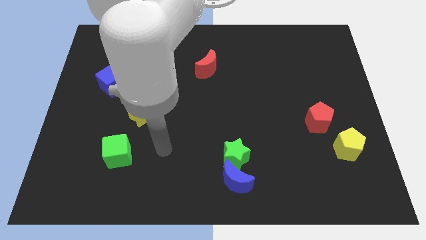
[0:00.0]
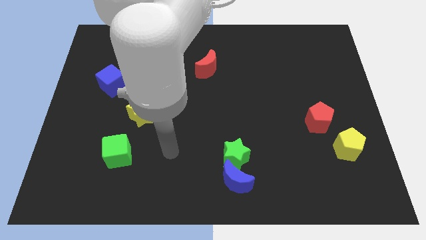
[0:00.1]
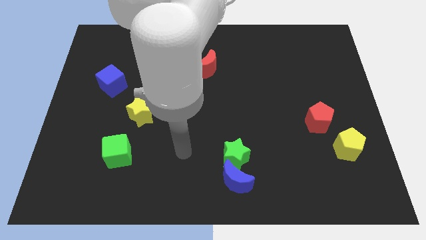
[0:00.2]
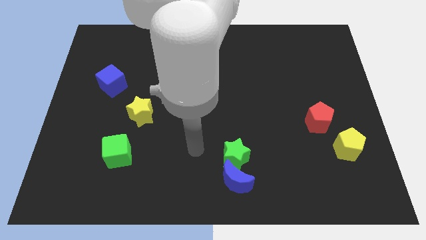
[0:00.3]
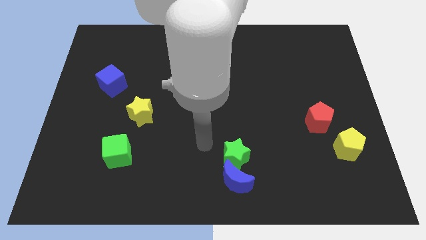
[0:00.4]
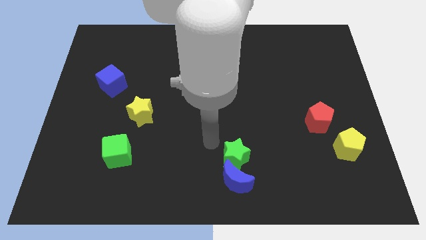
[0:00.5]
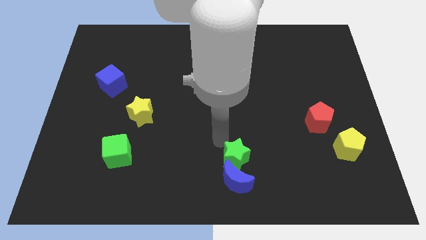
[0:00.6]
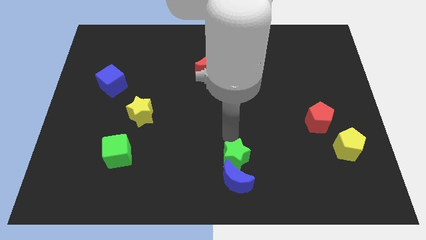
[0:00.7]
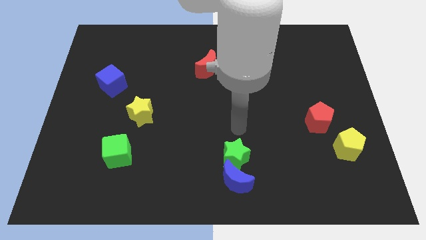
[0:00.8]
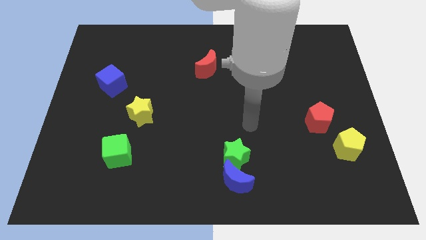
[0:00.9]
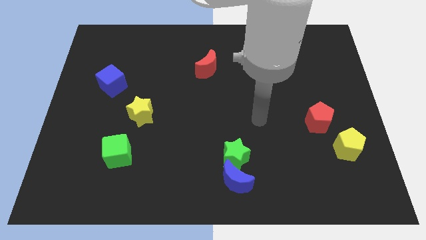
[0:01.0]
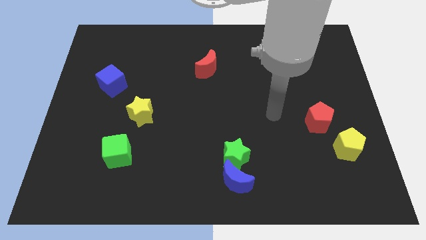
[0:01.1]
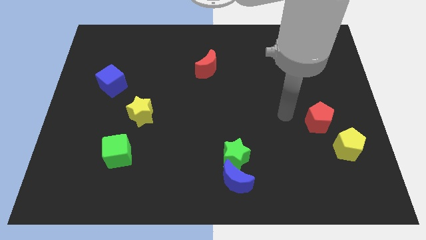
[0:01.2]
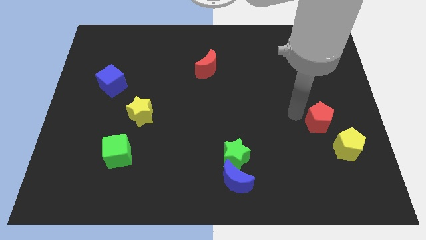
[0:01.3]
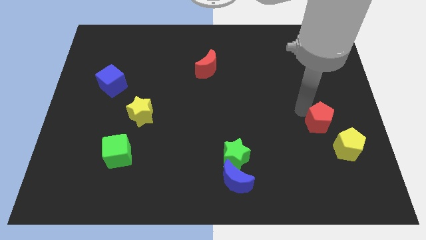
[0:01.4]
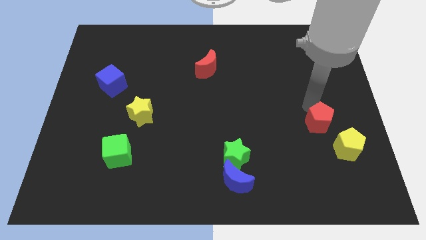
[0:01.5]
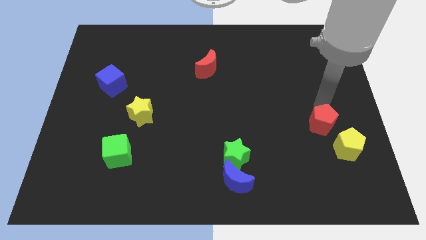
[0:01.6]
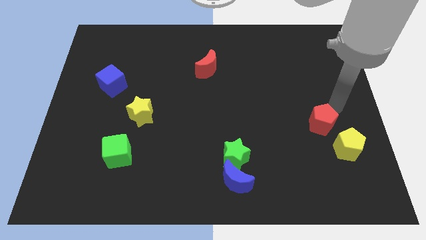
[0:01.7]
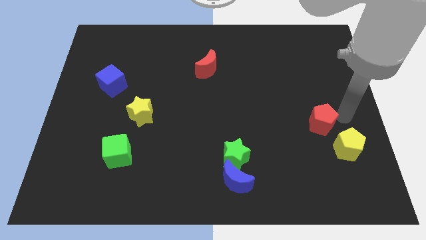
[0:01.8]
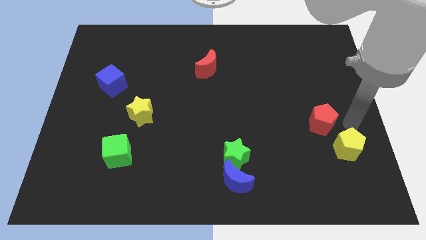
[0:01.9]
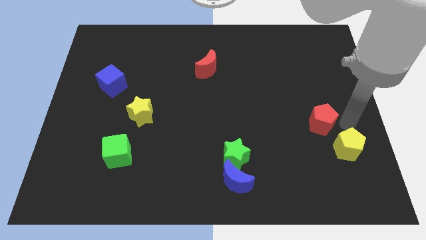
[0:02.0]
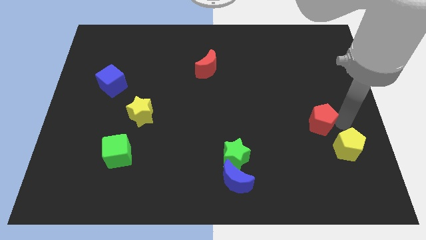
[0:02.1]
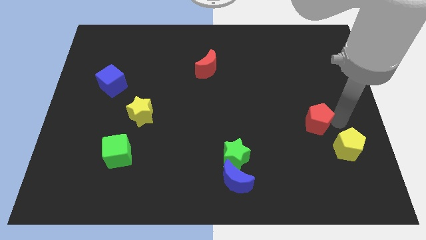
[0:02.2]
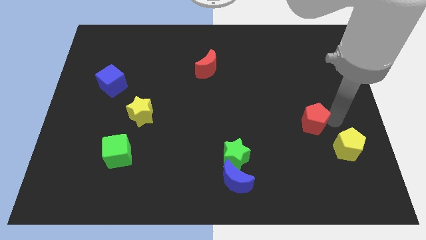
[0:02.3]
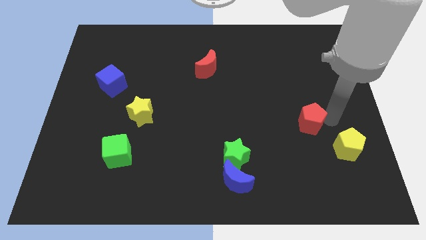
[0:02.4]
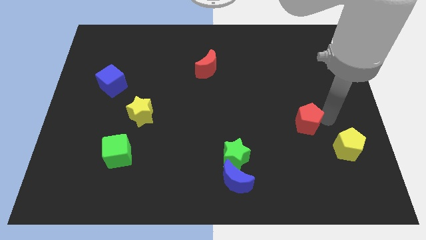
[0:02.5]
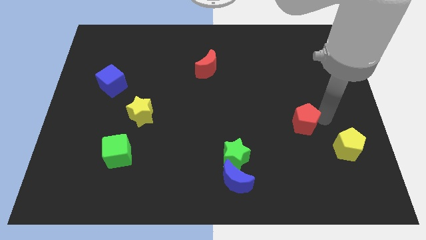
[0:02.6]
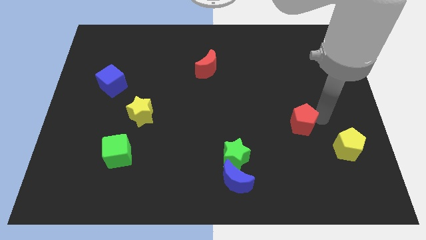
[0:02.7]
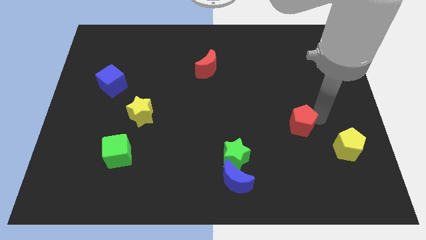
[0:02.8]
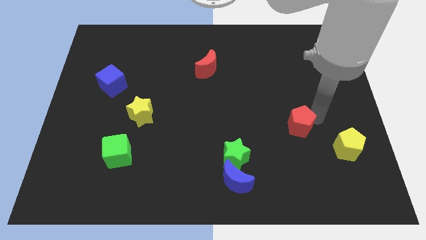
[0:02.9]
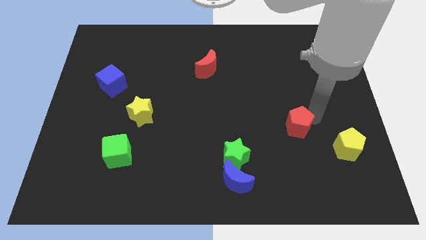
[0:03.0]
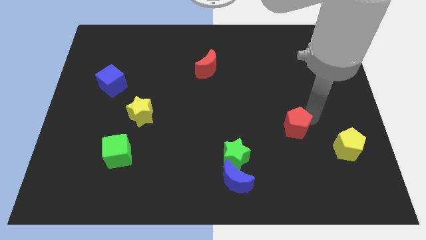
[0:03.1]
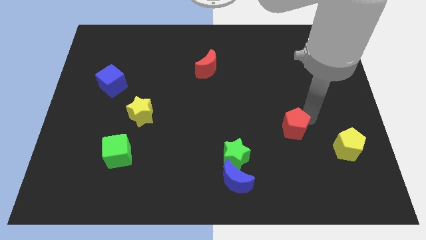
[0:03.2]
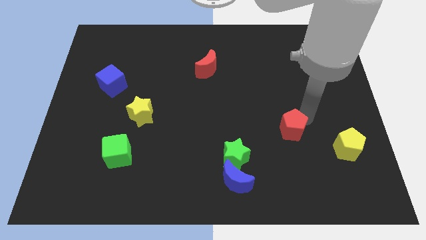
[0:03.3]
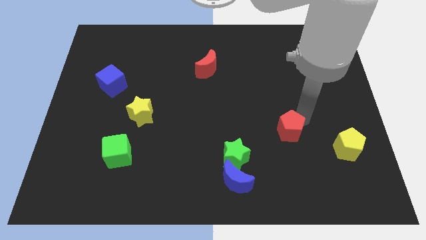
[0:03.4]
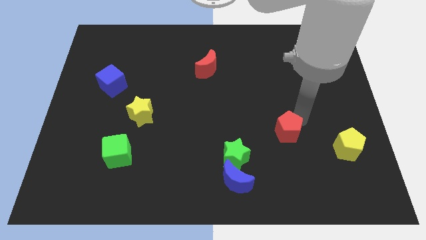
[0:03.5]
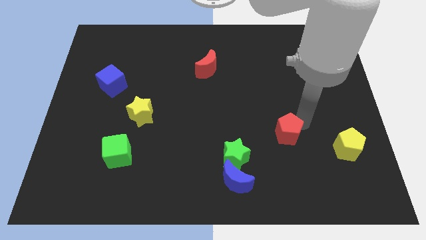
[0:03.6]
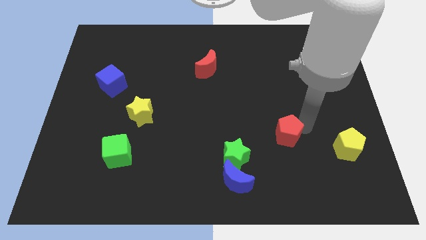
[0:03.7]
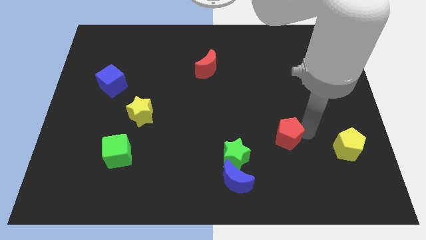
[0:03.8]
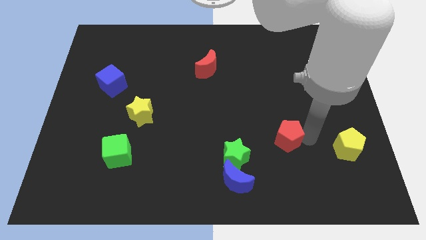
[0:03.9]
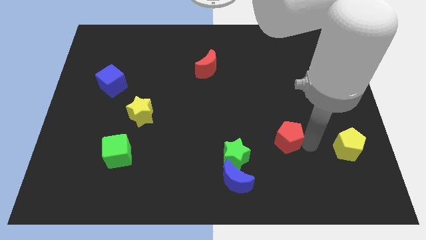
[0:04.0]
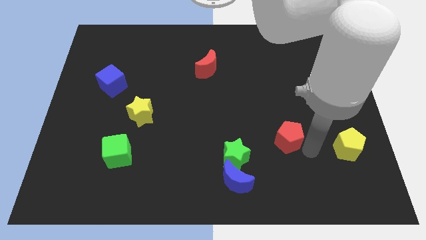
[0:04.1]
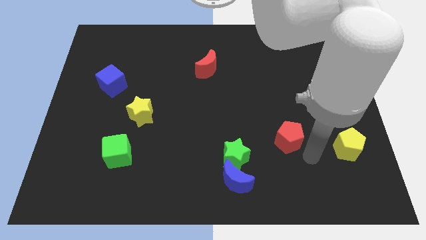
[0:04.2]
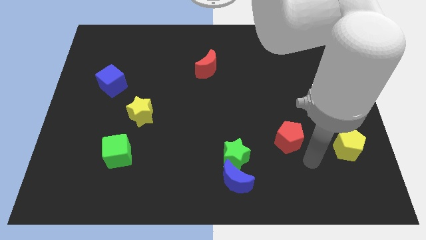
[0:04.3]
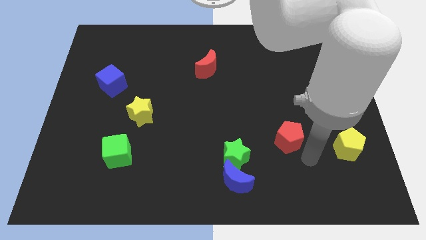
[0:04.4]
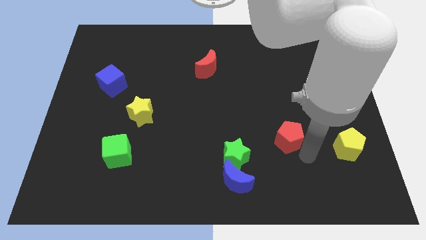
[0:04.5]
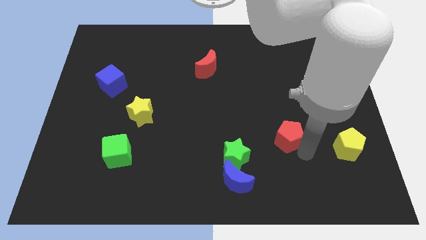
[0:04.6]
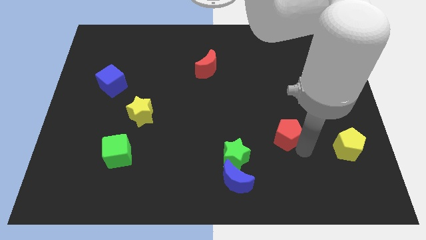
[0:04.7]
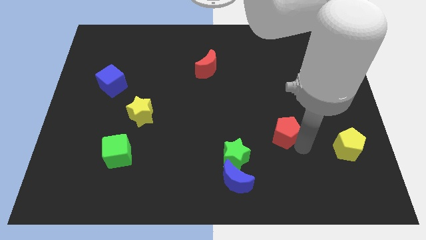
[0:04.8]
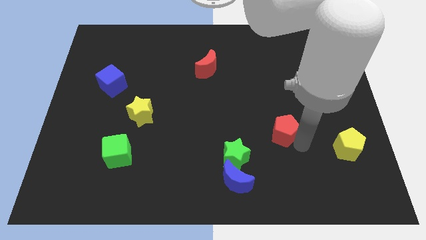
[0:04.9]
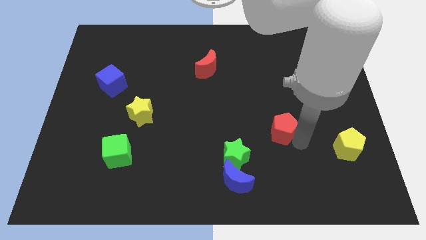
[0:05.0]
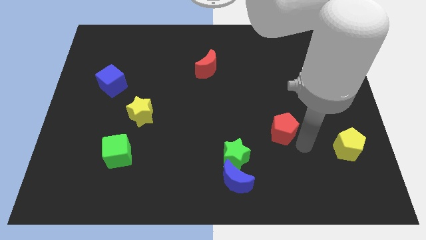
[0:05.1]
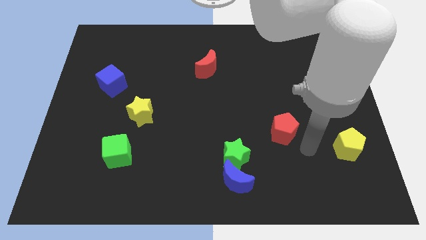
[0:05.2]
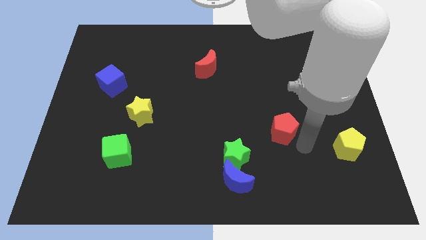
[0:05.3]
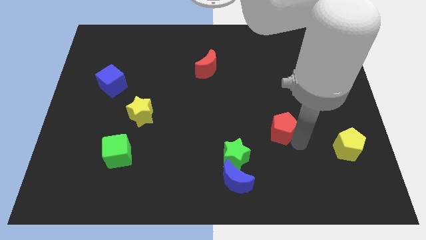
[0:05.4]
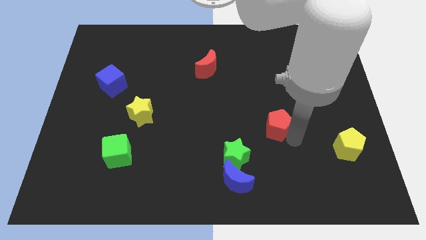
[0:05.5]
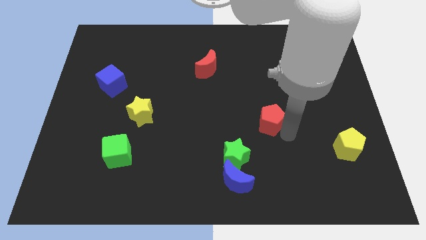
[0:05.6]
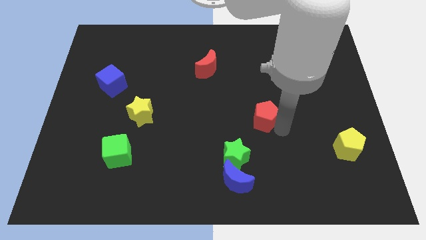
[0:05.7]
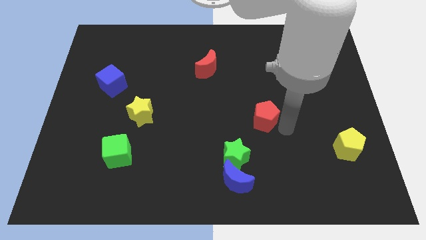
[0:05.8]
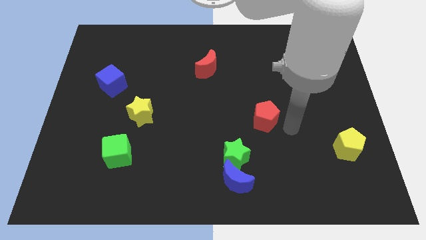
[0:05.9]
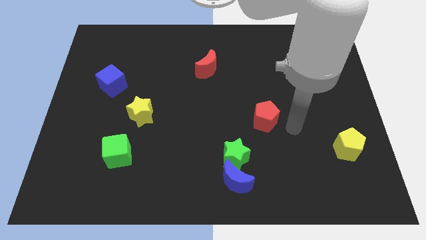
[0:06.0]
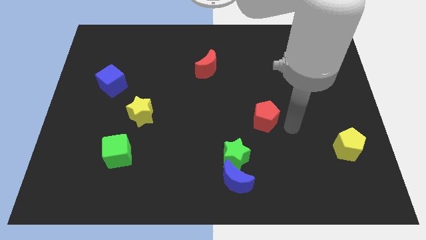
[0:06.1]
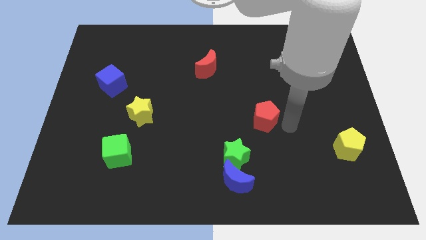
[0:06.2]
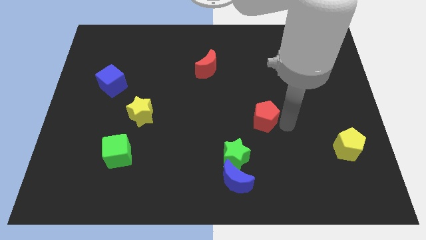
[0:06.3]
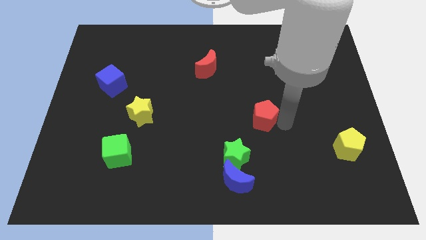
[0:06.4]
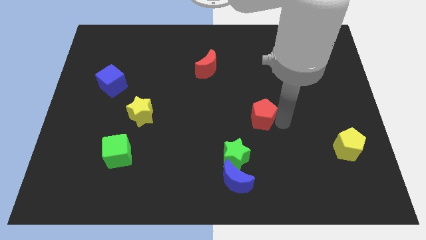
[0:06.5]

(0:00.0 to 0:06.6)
put the red pentagon to the middle
